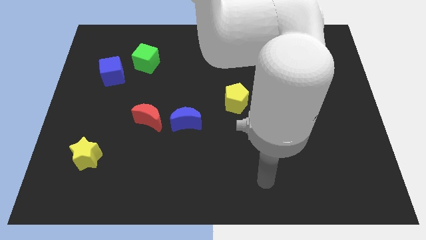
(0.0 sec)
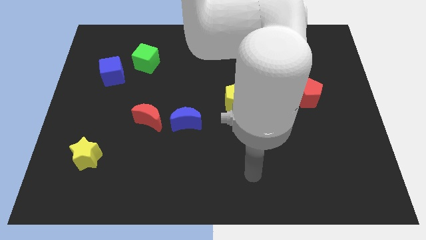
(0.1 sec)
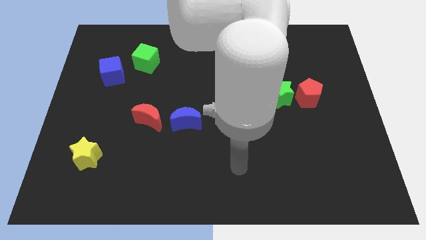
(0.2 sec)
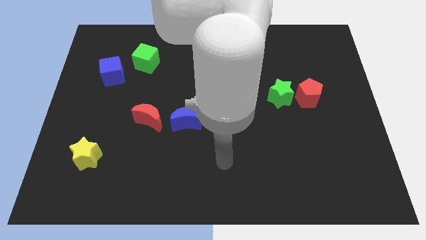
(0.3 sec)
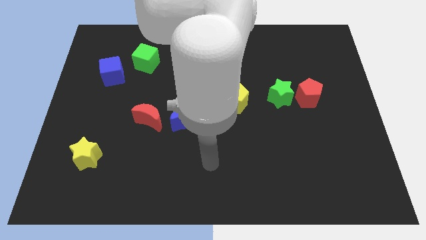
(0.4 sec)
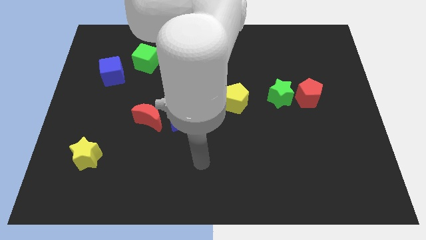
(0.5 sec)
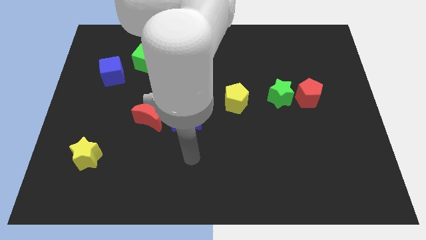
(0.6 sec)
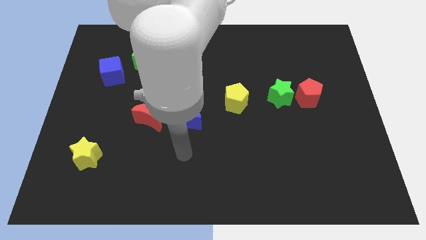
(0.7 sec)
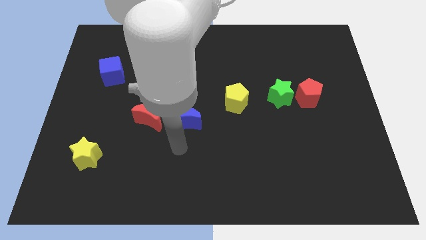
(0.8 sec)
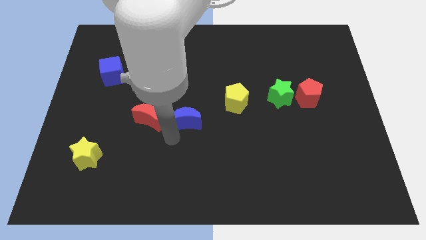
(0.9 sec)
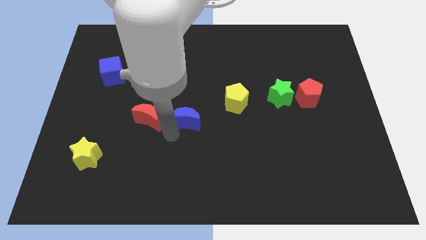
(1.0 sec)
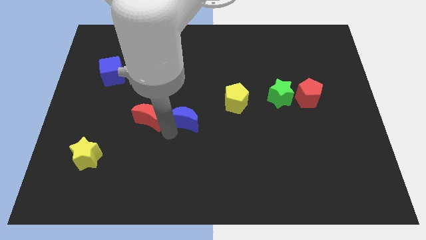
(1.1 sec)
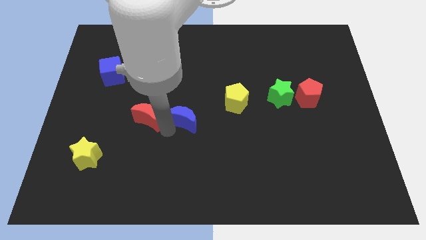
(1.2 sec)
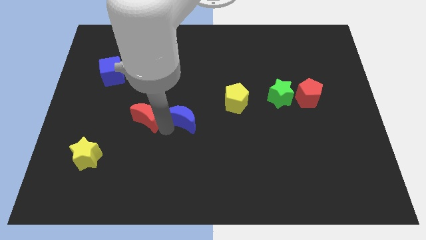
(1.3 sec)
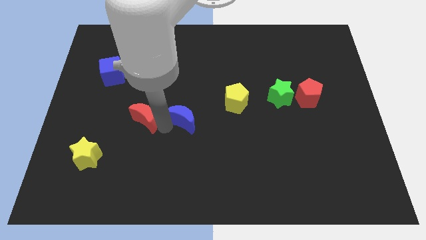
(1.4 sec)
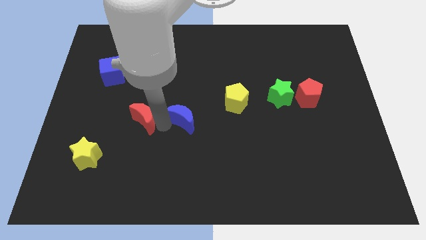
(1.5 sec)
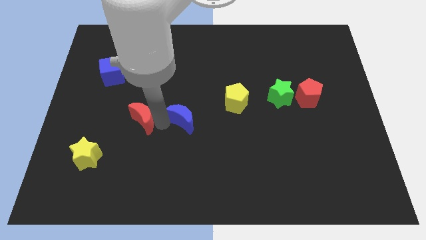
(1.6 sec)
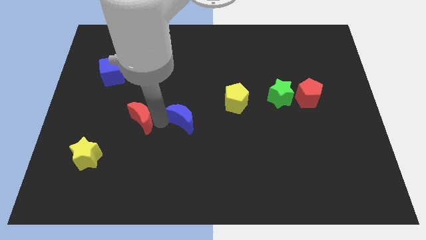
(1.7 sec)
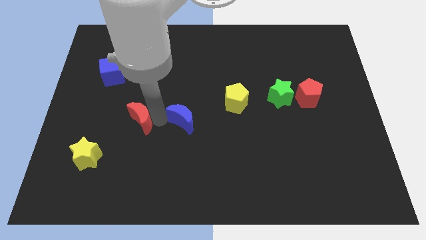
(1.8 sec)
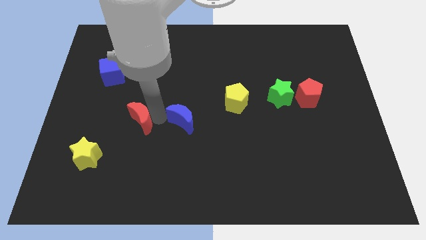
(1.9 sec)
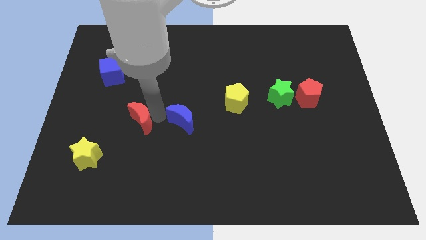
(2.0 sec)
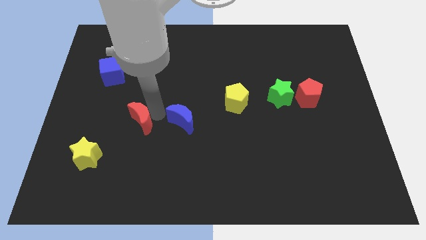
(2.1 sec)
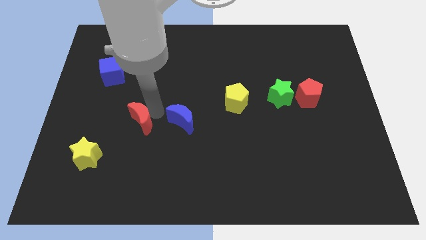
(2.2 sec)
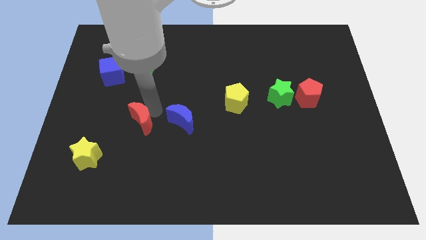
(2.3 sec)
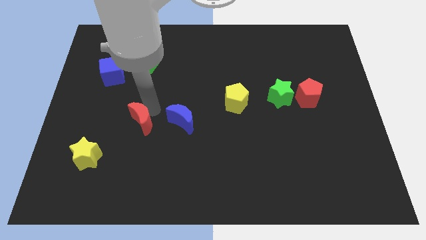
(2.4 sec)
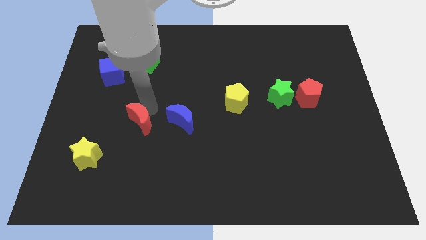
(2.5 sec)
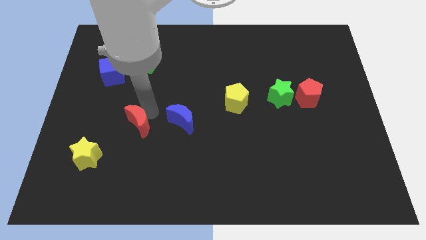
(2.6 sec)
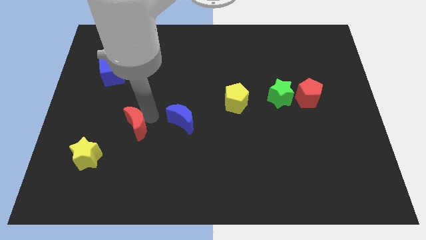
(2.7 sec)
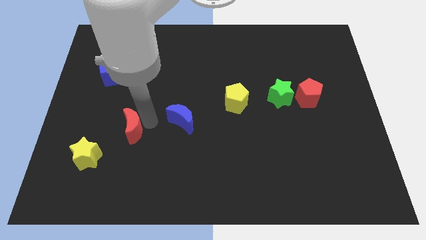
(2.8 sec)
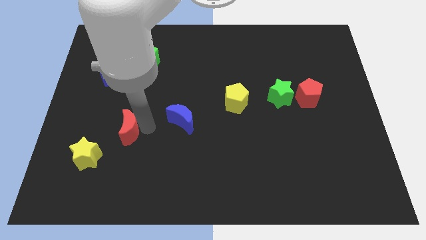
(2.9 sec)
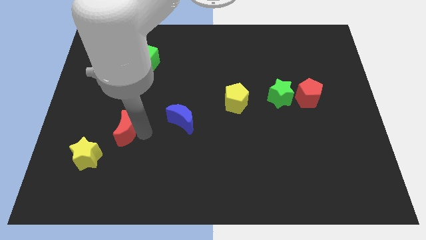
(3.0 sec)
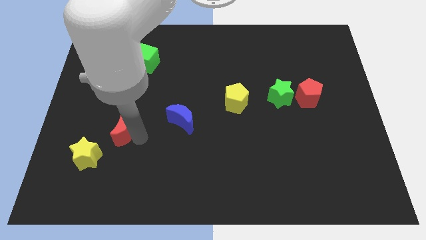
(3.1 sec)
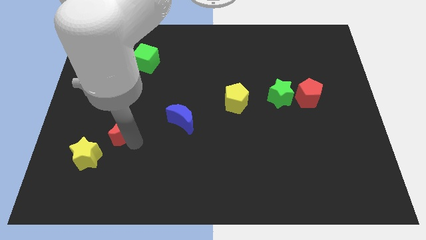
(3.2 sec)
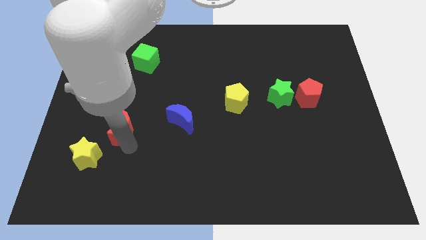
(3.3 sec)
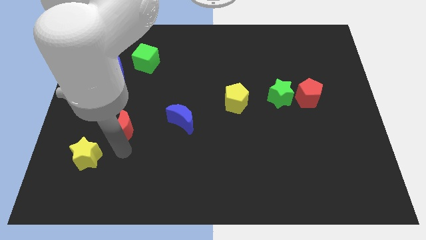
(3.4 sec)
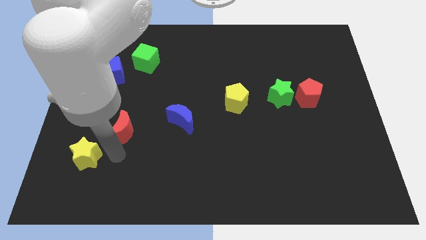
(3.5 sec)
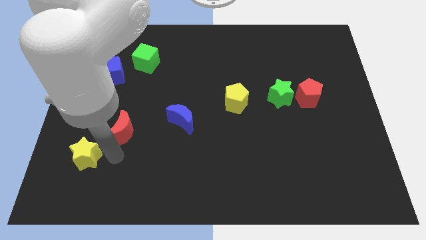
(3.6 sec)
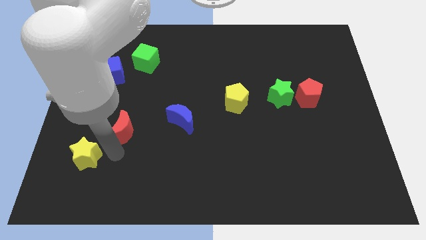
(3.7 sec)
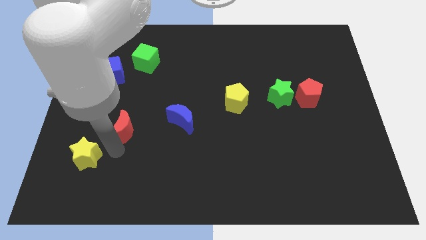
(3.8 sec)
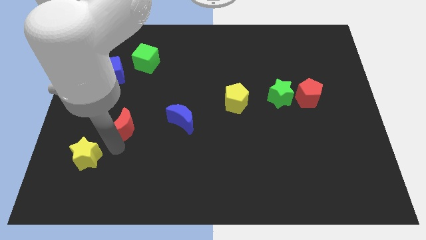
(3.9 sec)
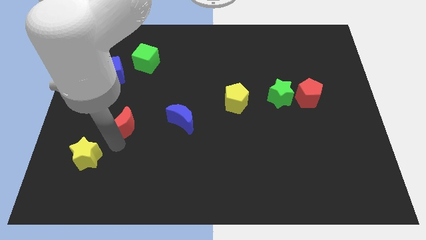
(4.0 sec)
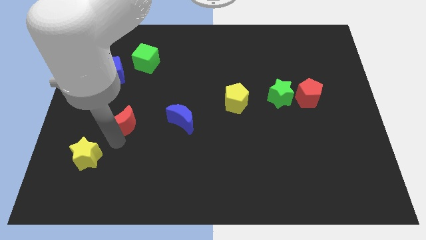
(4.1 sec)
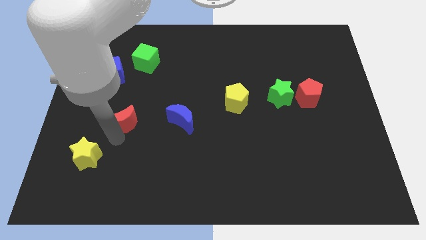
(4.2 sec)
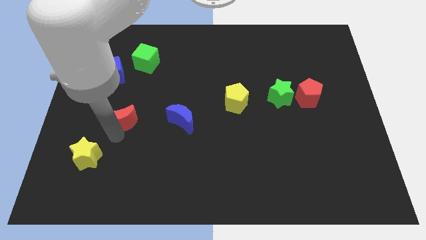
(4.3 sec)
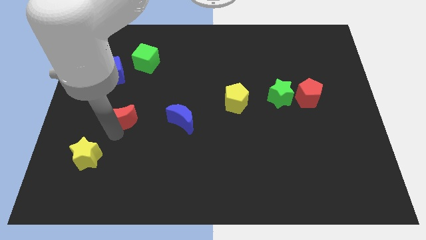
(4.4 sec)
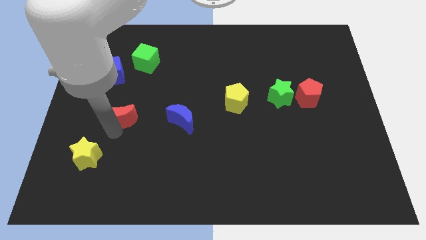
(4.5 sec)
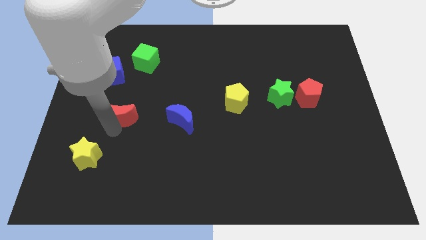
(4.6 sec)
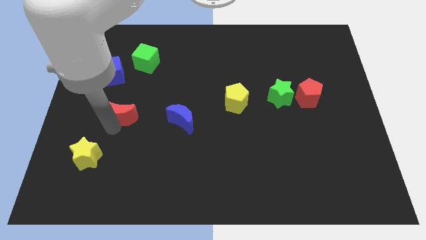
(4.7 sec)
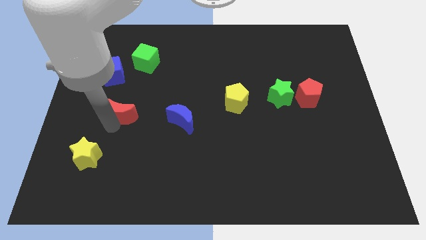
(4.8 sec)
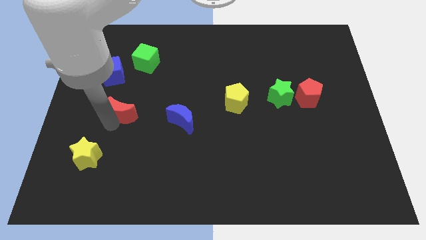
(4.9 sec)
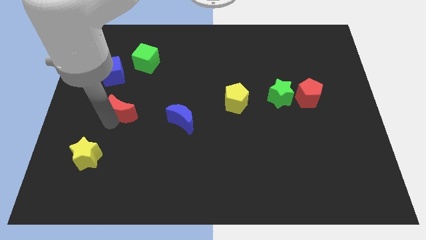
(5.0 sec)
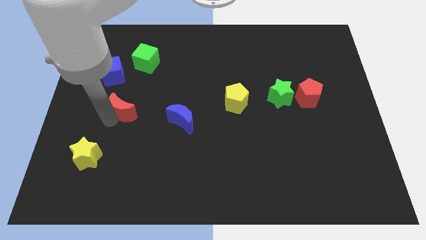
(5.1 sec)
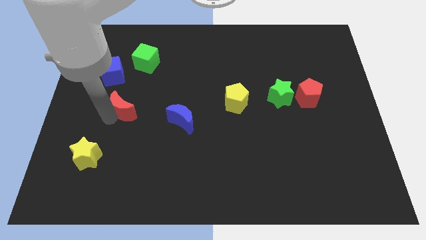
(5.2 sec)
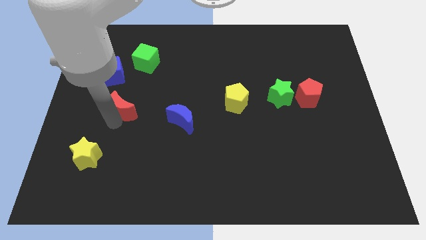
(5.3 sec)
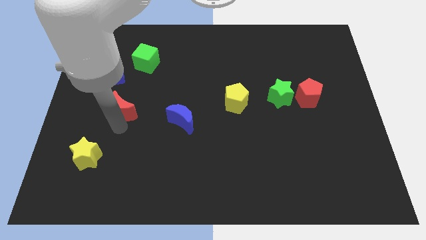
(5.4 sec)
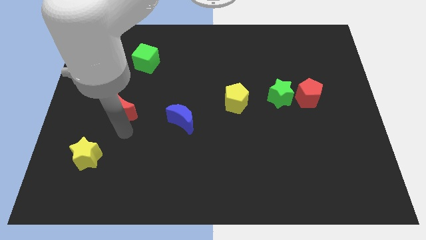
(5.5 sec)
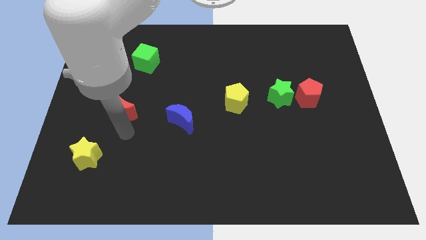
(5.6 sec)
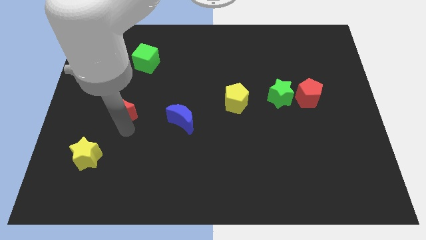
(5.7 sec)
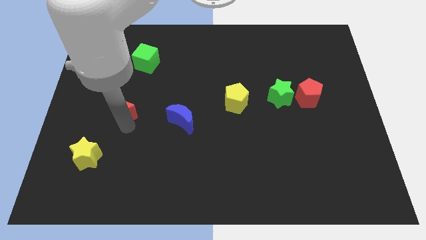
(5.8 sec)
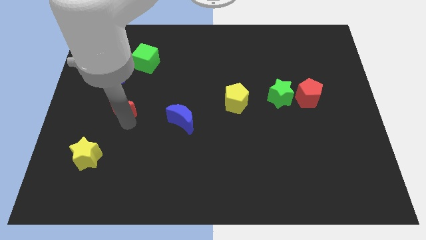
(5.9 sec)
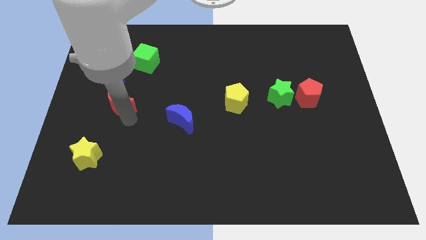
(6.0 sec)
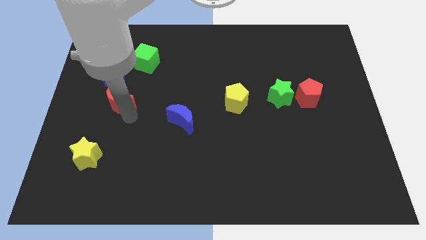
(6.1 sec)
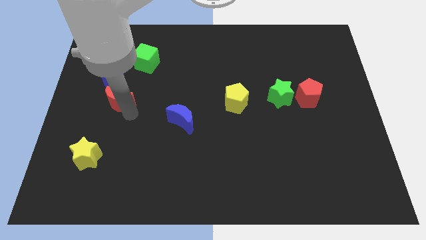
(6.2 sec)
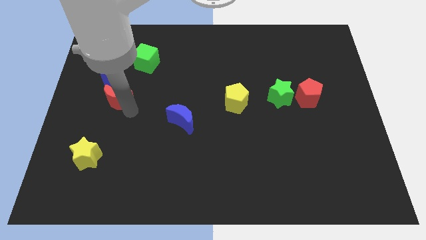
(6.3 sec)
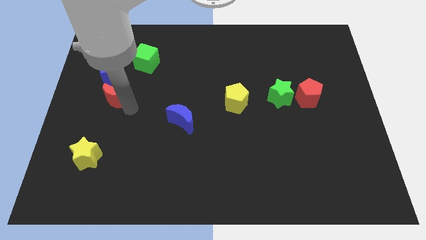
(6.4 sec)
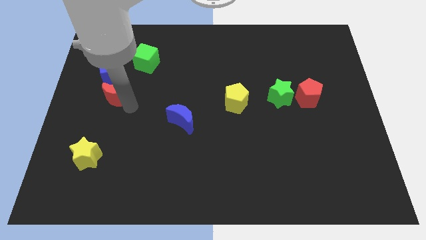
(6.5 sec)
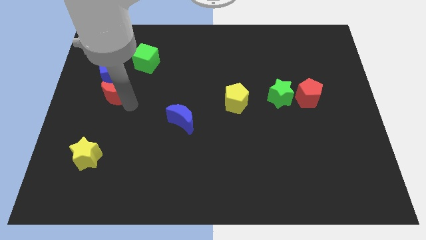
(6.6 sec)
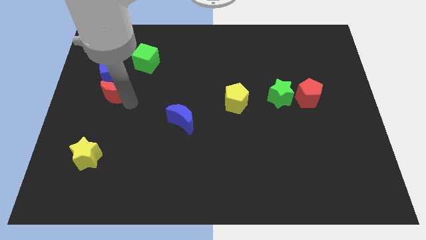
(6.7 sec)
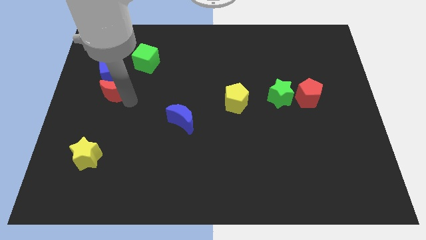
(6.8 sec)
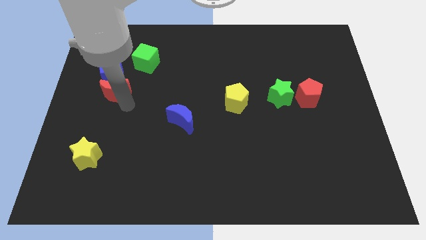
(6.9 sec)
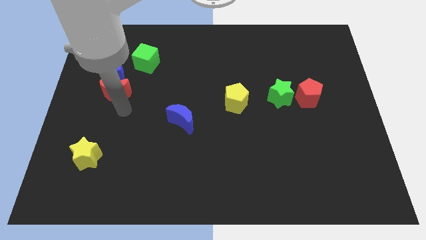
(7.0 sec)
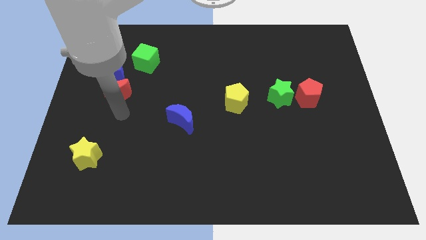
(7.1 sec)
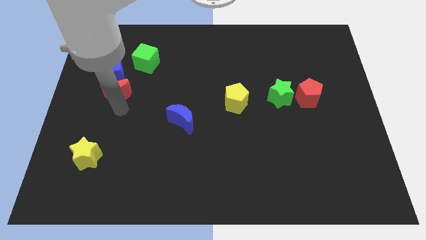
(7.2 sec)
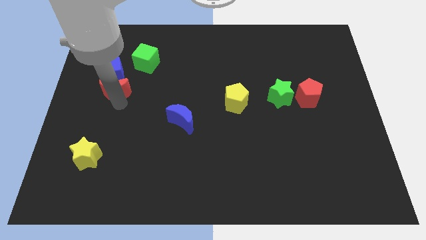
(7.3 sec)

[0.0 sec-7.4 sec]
slide the red moon next to the blue cube
